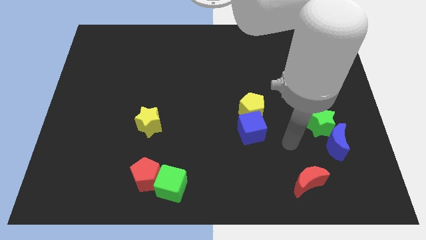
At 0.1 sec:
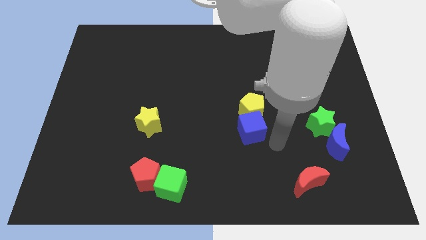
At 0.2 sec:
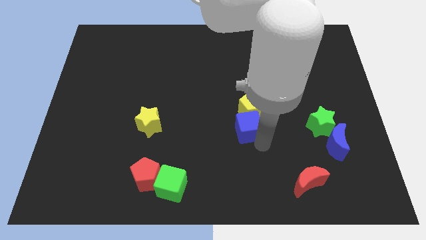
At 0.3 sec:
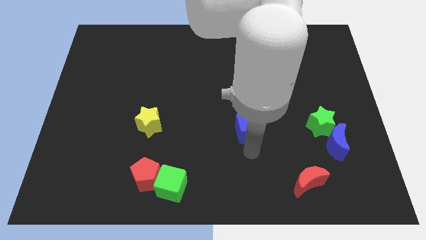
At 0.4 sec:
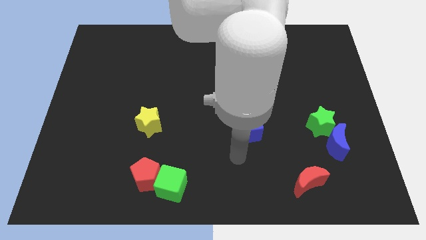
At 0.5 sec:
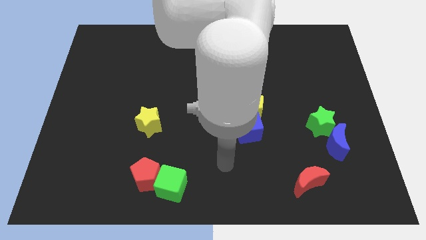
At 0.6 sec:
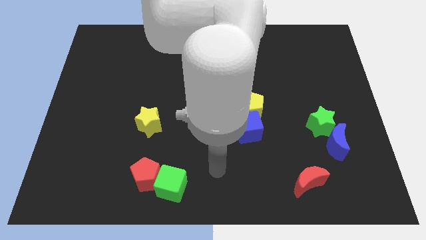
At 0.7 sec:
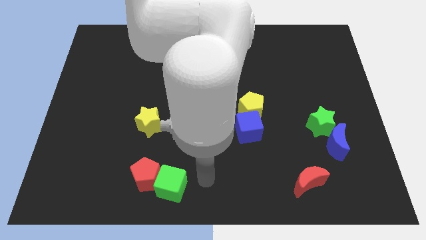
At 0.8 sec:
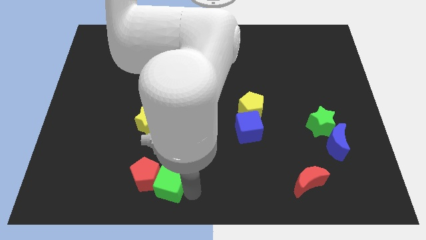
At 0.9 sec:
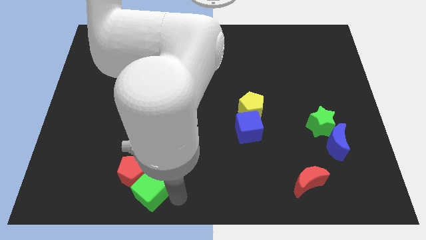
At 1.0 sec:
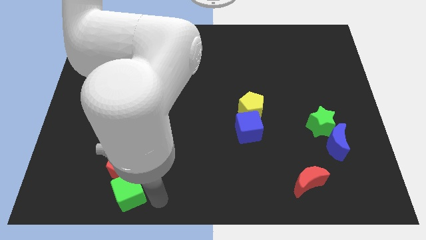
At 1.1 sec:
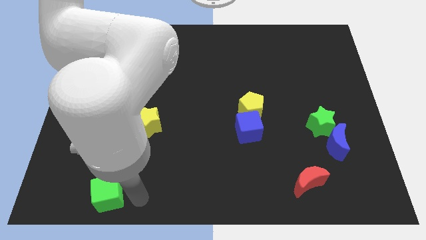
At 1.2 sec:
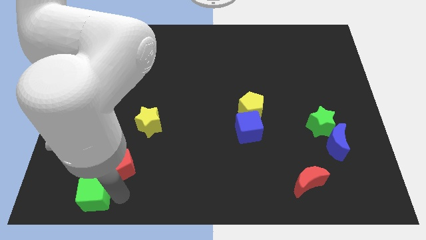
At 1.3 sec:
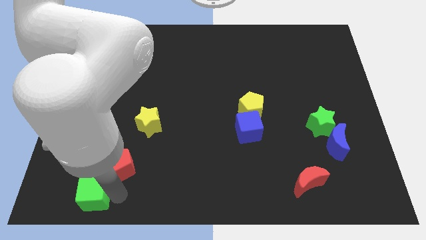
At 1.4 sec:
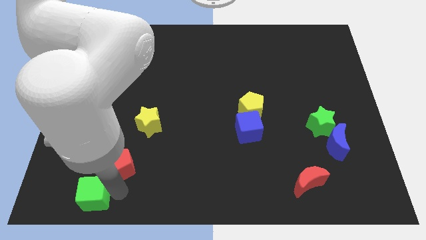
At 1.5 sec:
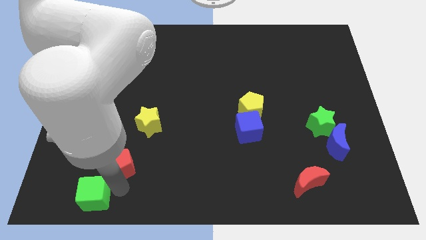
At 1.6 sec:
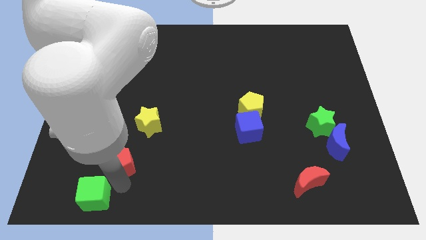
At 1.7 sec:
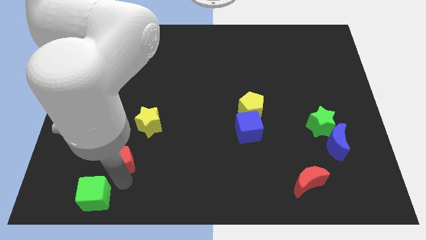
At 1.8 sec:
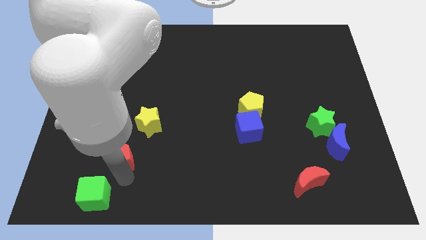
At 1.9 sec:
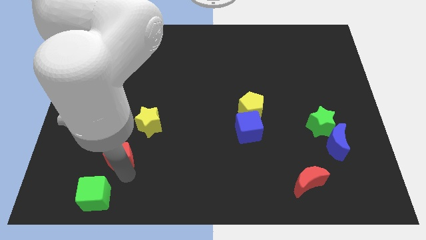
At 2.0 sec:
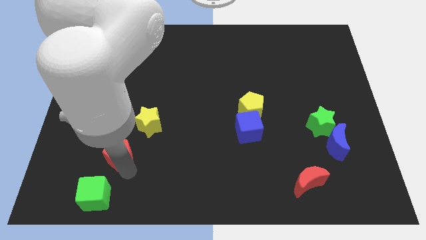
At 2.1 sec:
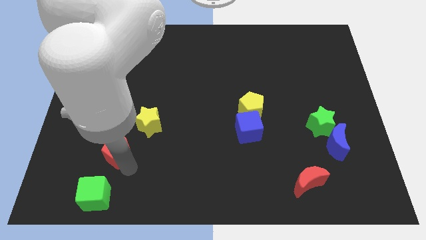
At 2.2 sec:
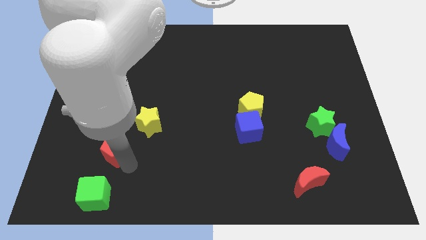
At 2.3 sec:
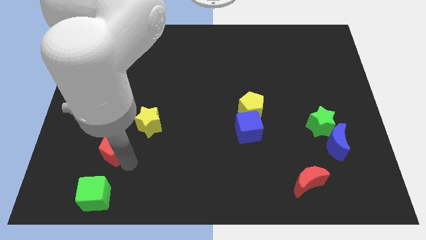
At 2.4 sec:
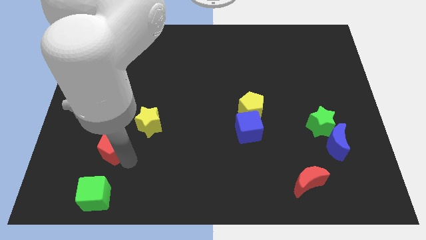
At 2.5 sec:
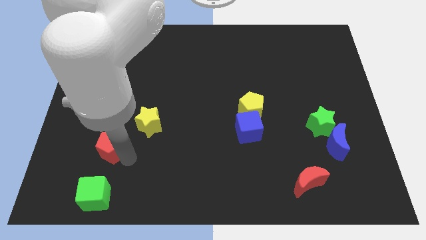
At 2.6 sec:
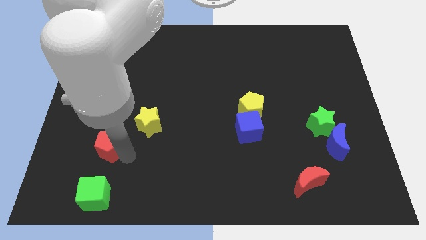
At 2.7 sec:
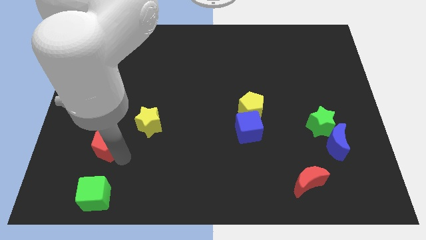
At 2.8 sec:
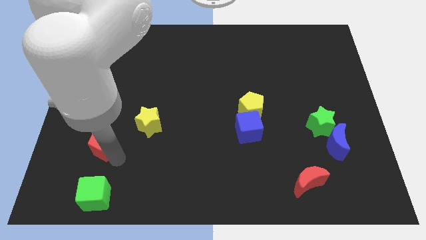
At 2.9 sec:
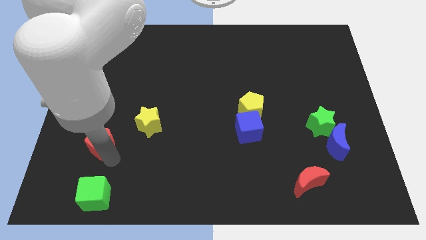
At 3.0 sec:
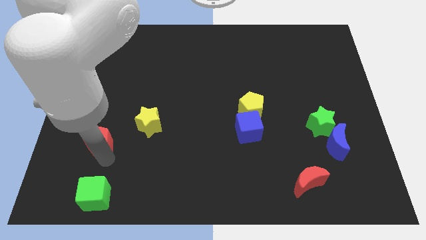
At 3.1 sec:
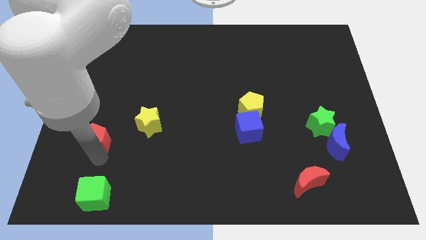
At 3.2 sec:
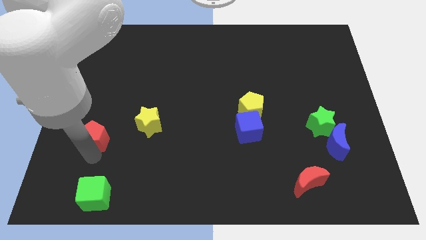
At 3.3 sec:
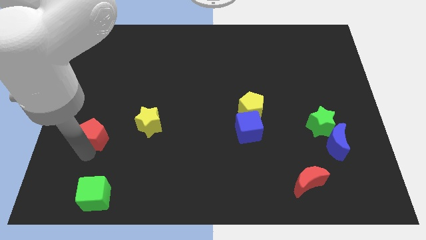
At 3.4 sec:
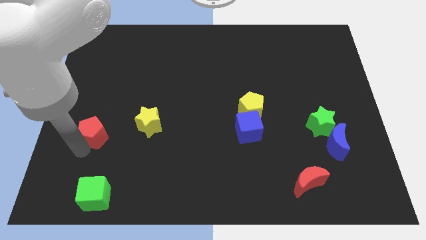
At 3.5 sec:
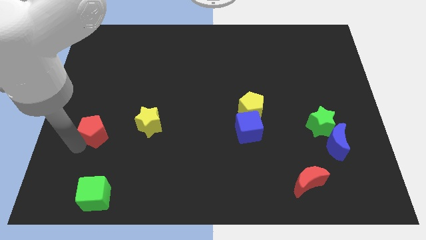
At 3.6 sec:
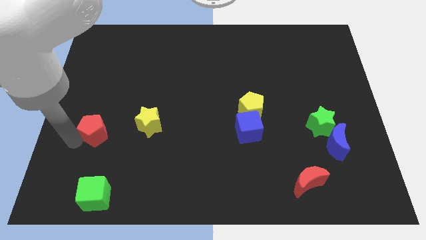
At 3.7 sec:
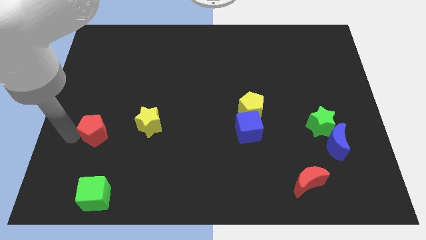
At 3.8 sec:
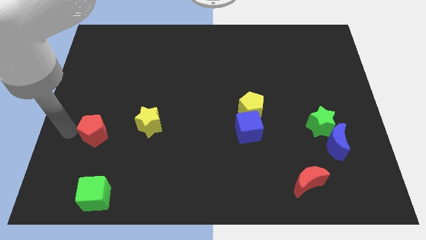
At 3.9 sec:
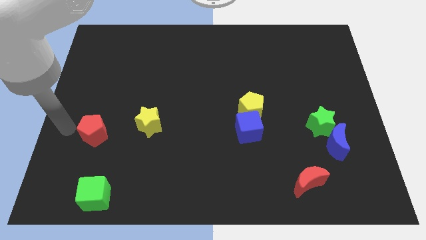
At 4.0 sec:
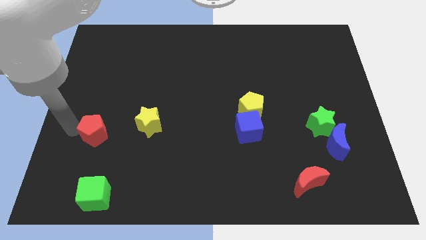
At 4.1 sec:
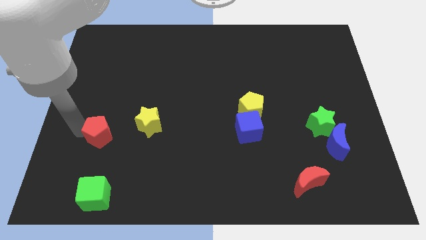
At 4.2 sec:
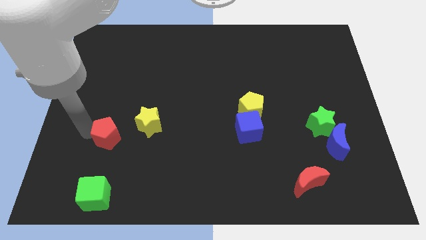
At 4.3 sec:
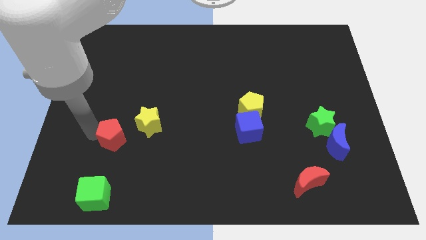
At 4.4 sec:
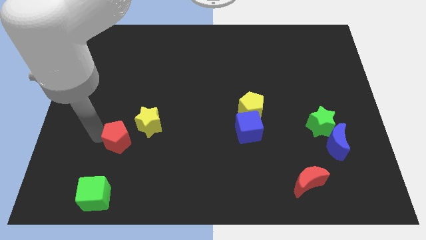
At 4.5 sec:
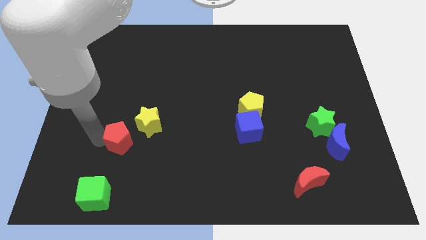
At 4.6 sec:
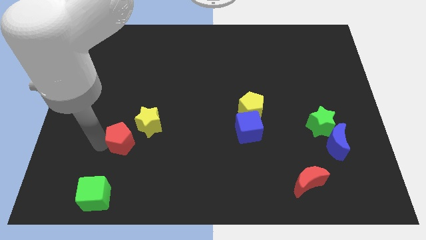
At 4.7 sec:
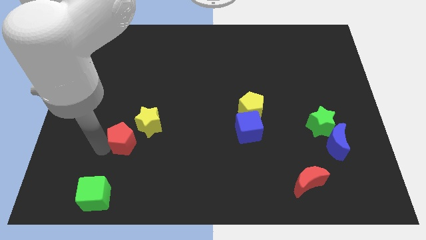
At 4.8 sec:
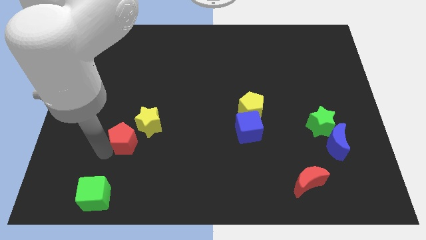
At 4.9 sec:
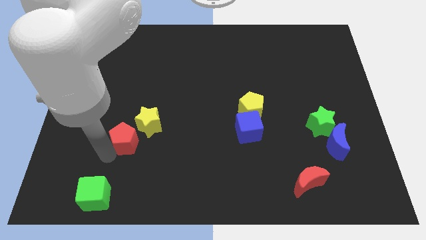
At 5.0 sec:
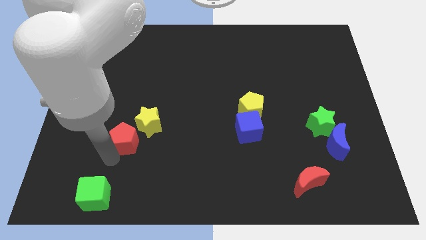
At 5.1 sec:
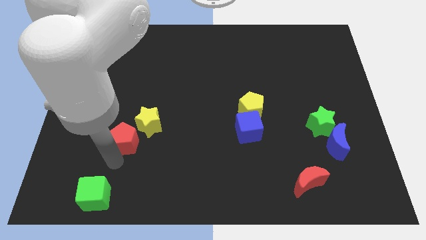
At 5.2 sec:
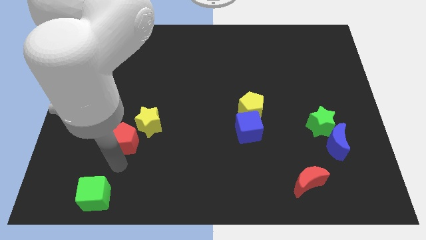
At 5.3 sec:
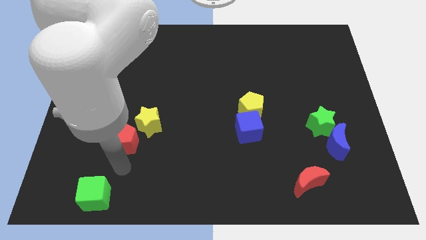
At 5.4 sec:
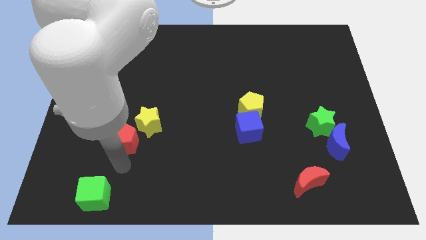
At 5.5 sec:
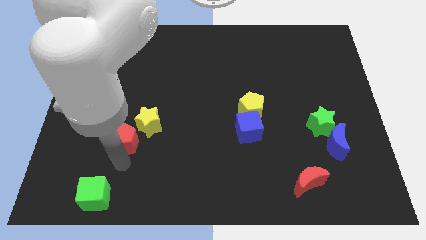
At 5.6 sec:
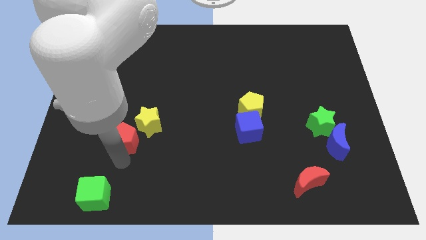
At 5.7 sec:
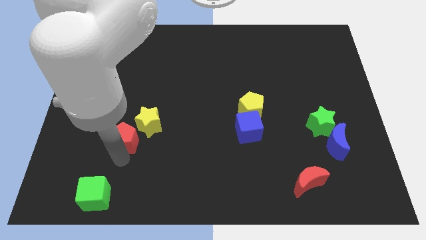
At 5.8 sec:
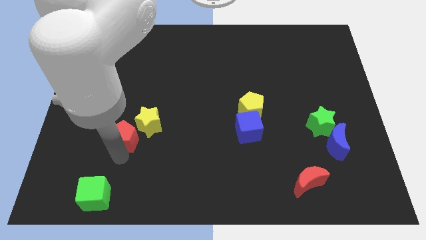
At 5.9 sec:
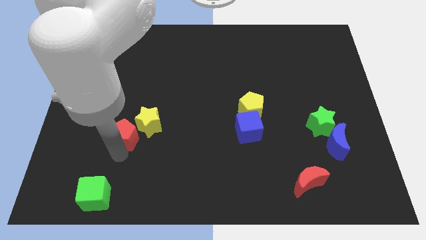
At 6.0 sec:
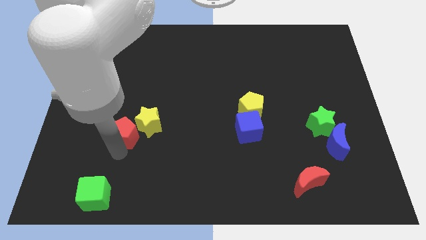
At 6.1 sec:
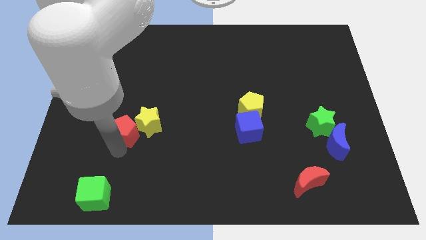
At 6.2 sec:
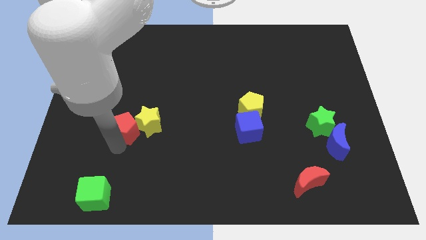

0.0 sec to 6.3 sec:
move the red pentagon to the top left side of the yellow star

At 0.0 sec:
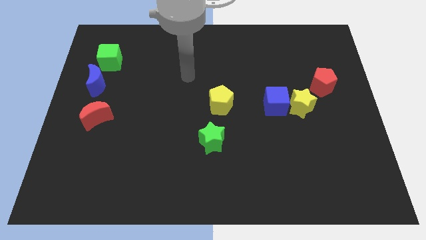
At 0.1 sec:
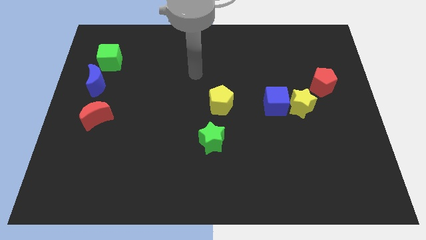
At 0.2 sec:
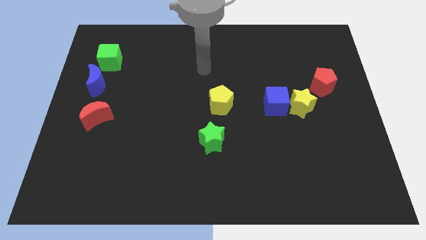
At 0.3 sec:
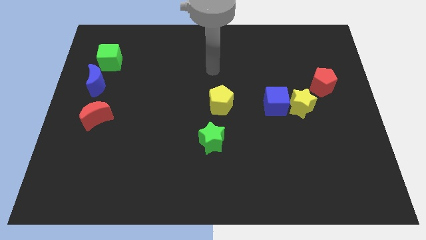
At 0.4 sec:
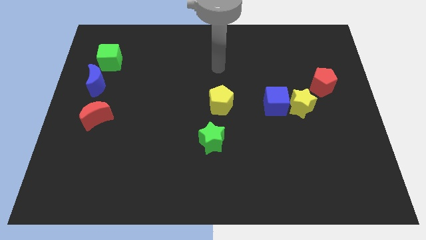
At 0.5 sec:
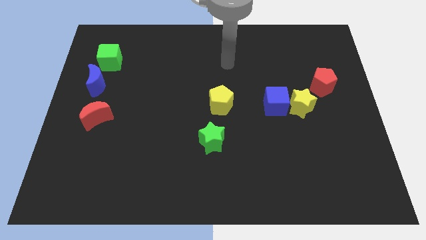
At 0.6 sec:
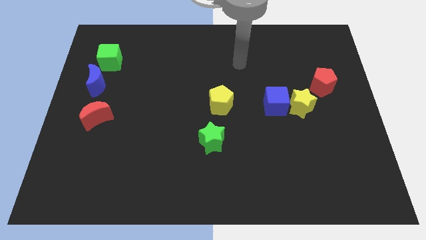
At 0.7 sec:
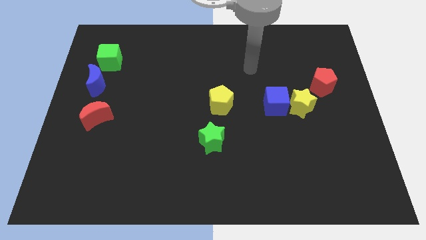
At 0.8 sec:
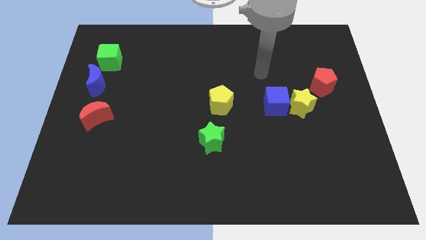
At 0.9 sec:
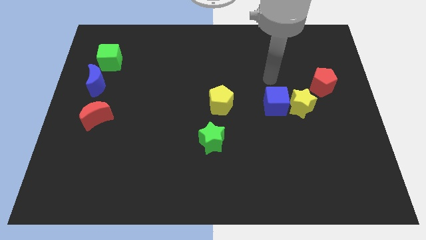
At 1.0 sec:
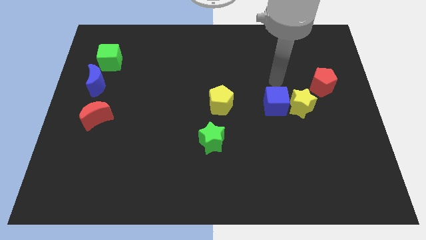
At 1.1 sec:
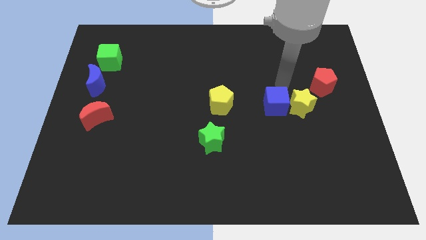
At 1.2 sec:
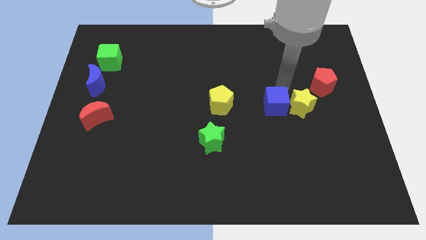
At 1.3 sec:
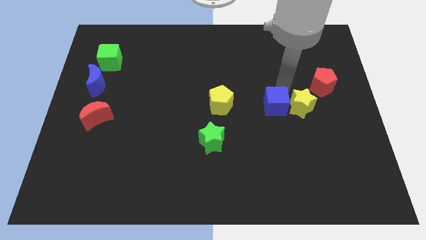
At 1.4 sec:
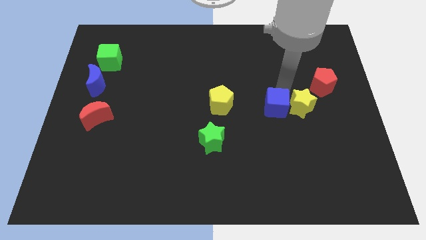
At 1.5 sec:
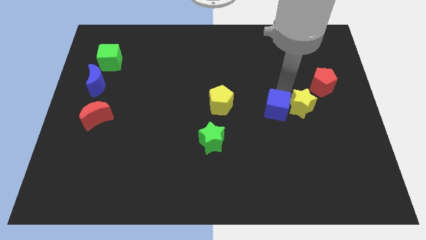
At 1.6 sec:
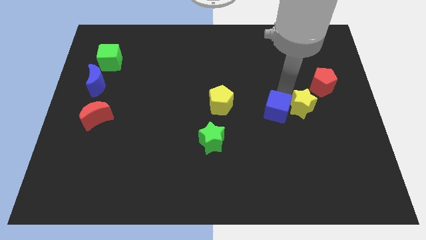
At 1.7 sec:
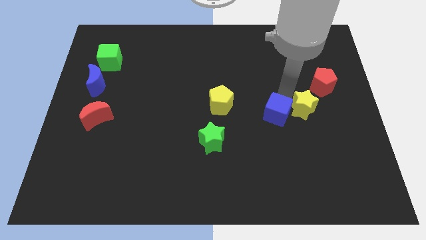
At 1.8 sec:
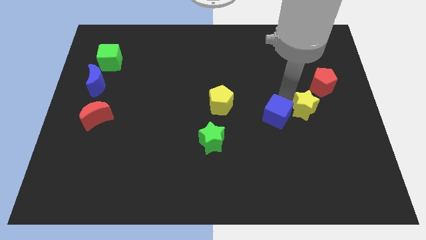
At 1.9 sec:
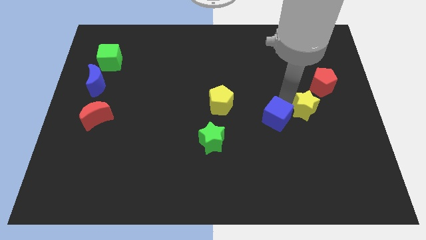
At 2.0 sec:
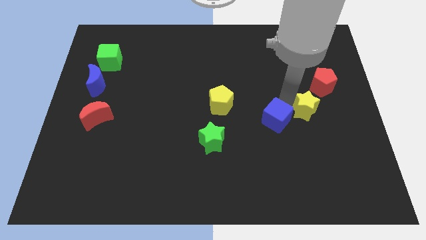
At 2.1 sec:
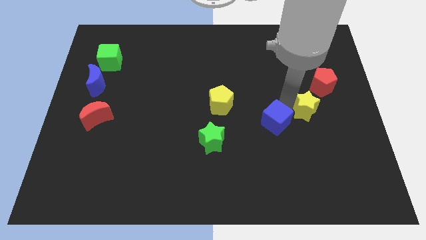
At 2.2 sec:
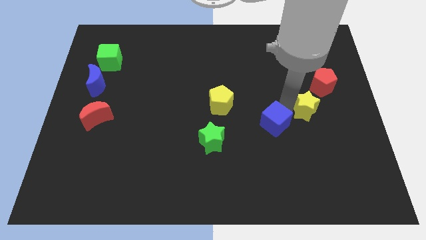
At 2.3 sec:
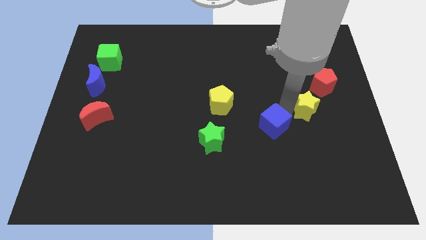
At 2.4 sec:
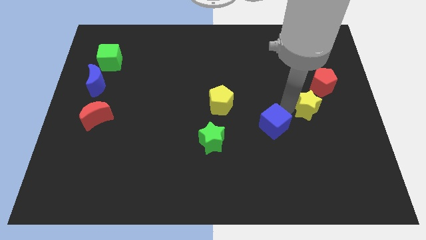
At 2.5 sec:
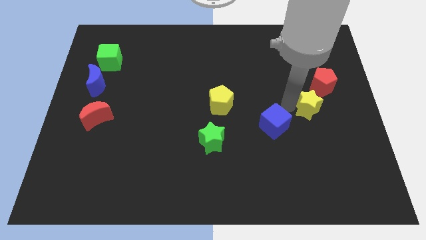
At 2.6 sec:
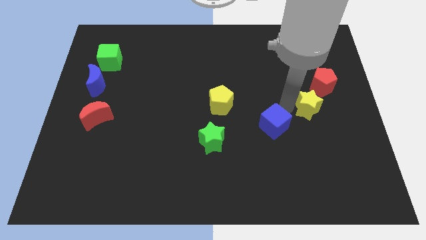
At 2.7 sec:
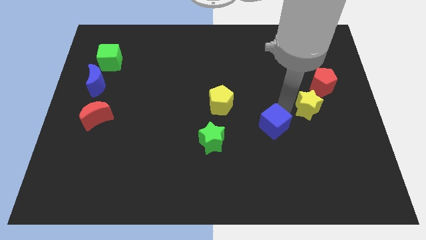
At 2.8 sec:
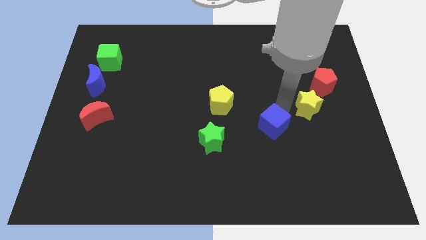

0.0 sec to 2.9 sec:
move the blue cube just right of the green star
